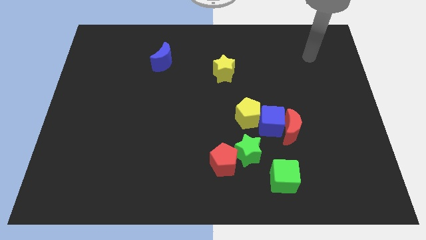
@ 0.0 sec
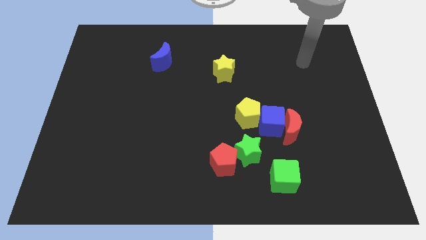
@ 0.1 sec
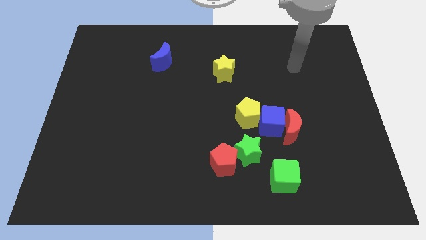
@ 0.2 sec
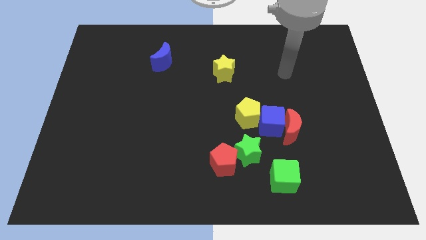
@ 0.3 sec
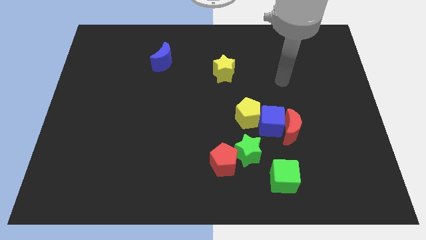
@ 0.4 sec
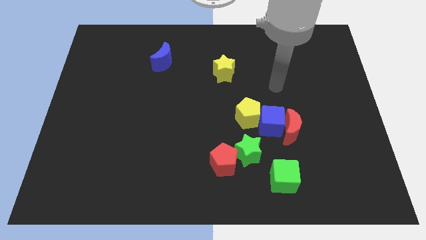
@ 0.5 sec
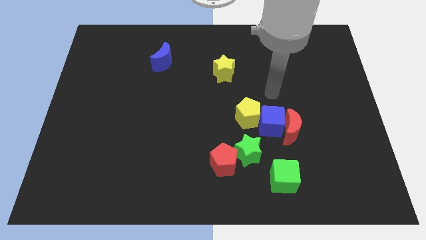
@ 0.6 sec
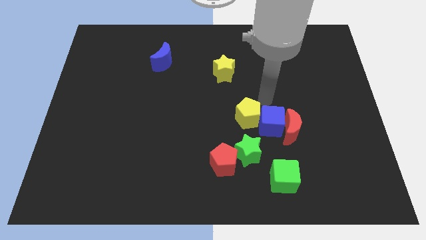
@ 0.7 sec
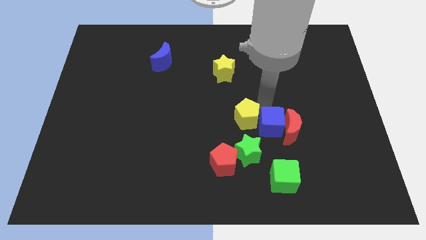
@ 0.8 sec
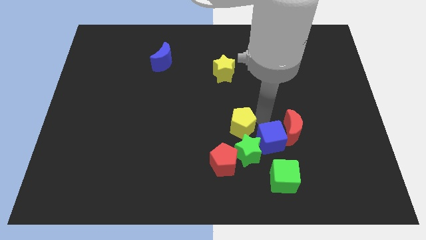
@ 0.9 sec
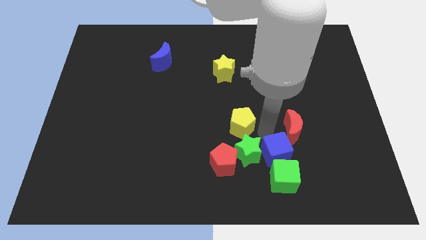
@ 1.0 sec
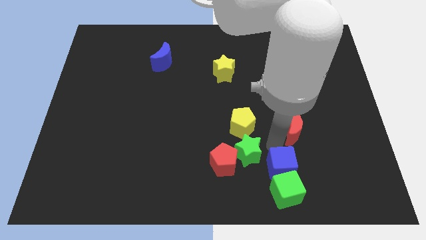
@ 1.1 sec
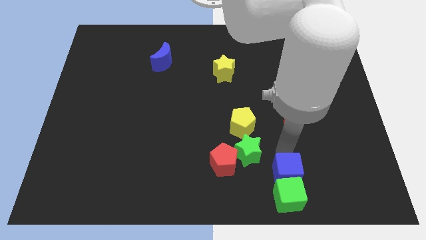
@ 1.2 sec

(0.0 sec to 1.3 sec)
pull the red moon apart from the blue cube

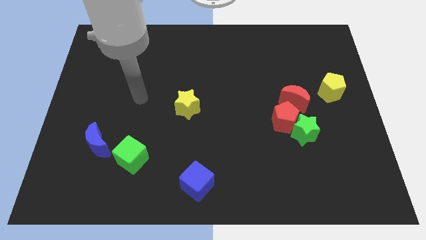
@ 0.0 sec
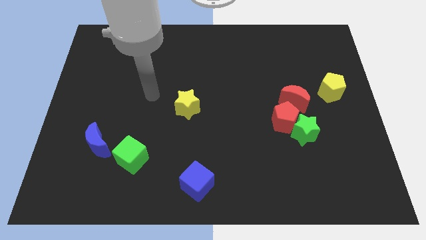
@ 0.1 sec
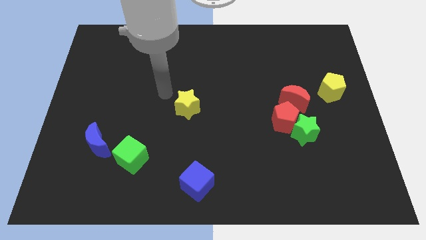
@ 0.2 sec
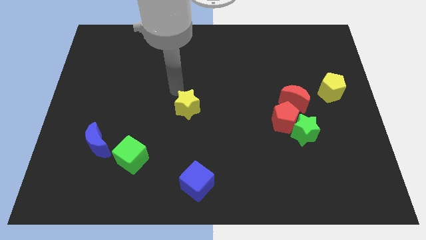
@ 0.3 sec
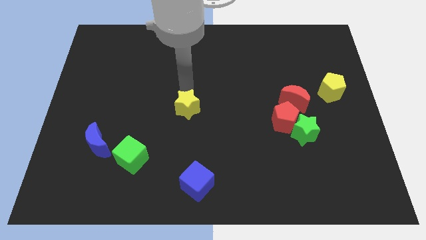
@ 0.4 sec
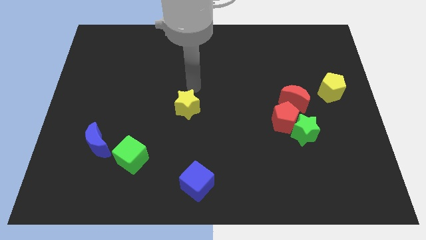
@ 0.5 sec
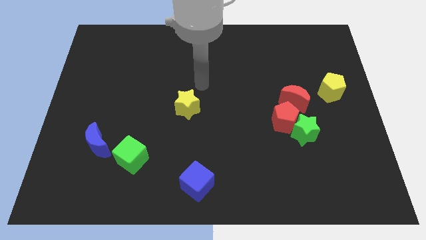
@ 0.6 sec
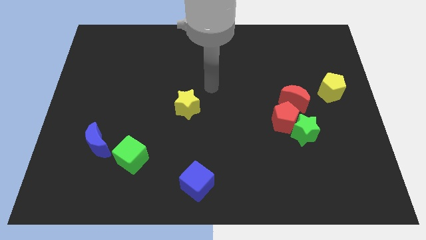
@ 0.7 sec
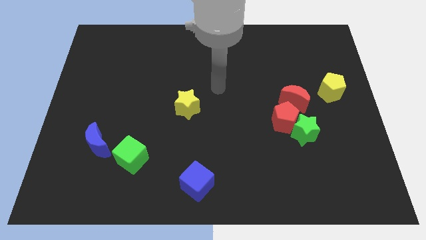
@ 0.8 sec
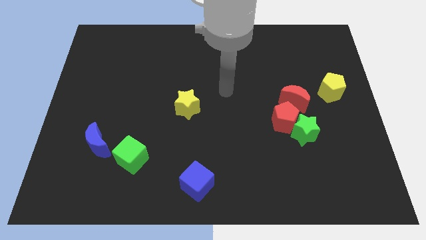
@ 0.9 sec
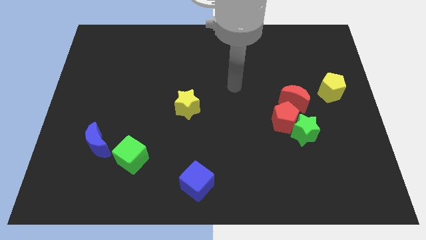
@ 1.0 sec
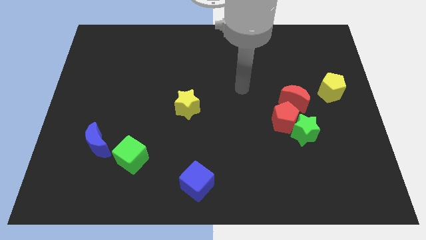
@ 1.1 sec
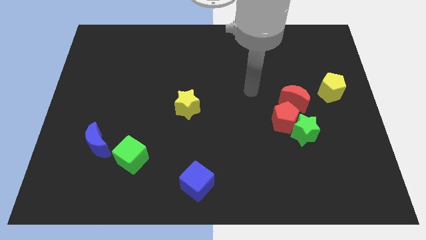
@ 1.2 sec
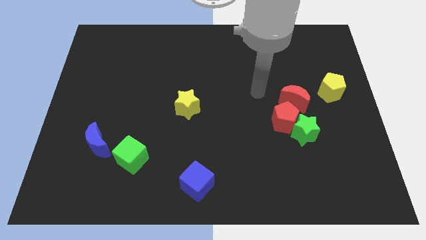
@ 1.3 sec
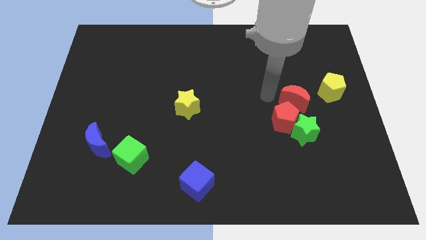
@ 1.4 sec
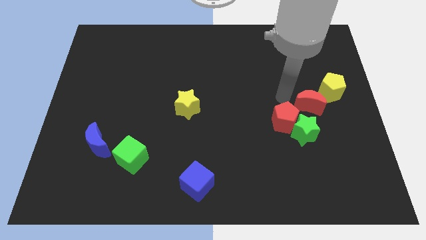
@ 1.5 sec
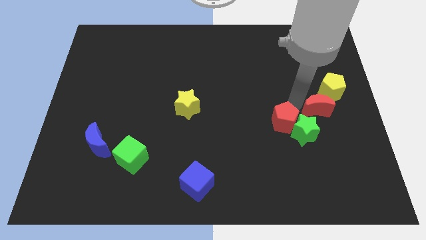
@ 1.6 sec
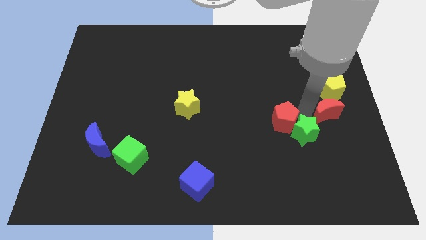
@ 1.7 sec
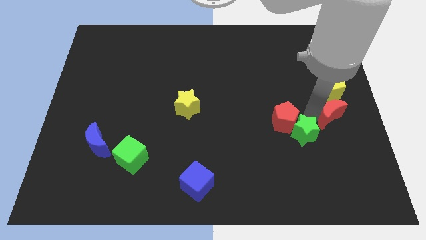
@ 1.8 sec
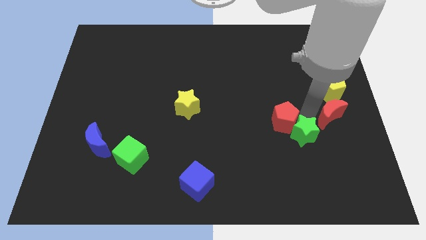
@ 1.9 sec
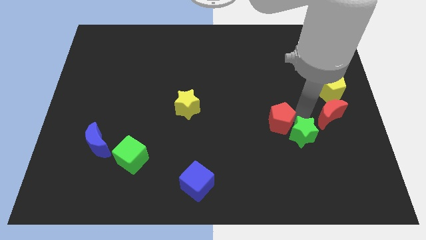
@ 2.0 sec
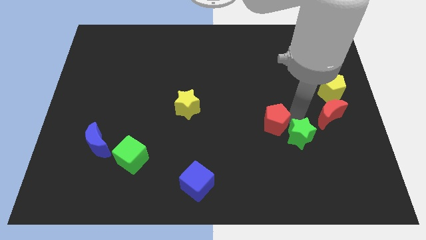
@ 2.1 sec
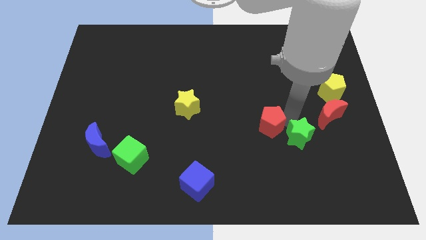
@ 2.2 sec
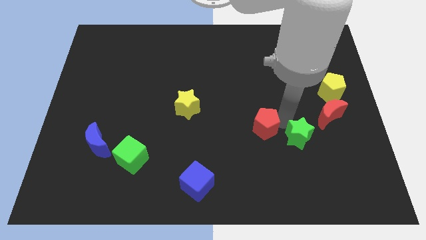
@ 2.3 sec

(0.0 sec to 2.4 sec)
separate the red pentagon from the green star and red moon

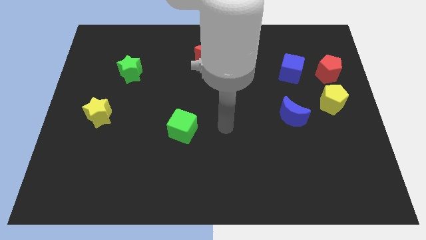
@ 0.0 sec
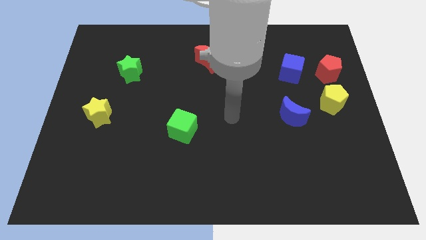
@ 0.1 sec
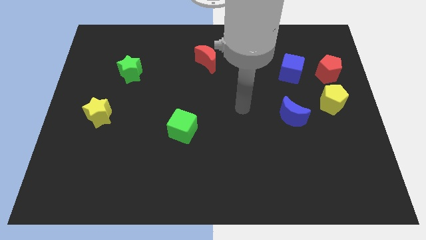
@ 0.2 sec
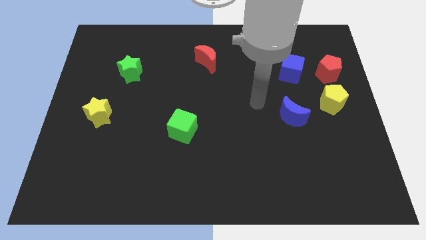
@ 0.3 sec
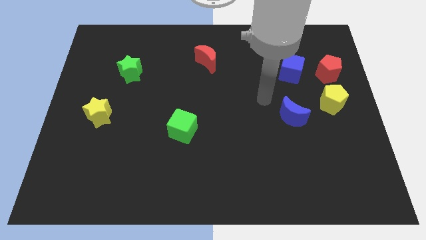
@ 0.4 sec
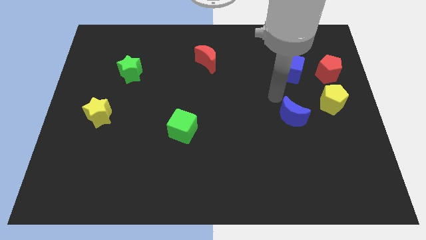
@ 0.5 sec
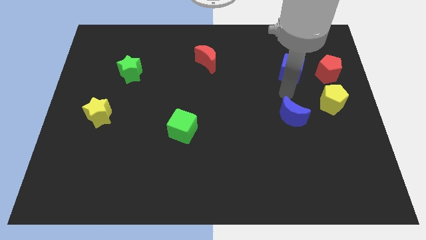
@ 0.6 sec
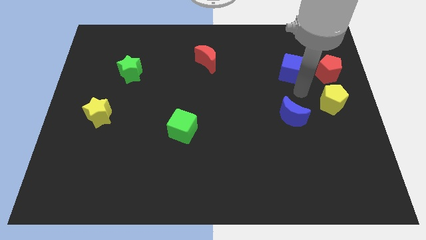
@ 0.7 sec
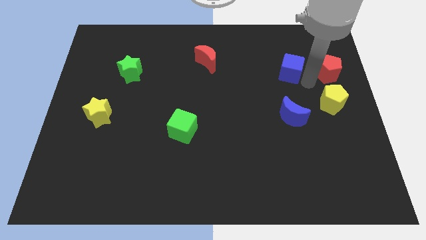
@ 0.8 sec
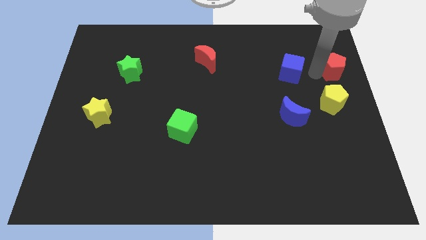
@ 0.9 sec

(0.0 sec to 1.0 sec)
separate the blue cube from the red pentagon

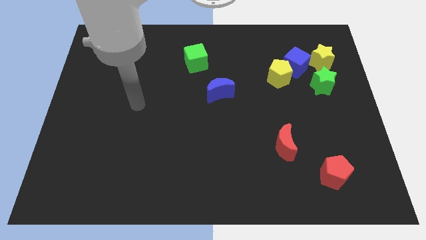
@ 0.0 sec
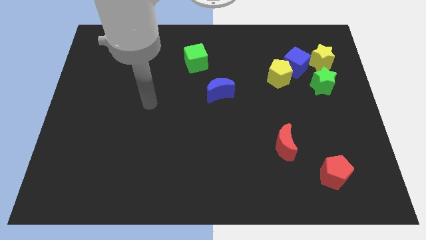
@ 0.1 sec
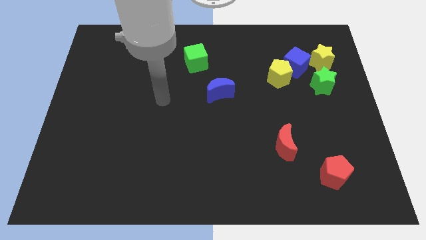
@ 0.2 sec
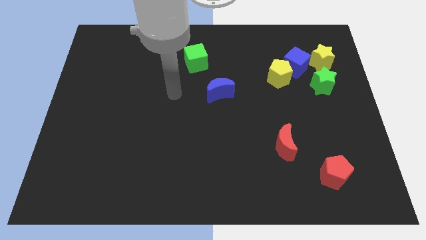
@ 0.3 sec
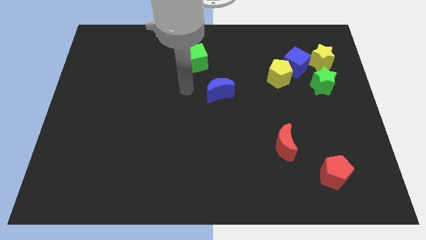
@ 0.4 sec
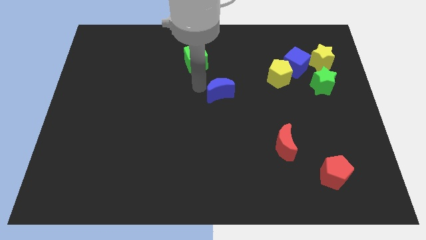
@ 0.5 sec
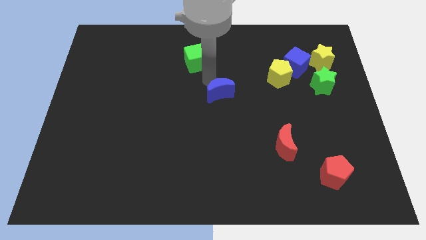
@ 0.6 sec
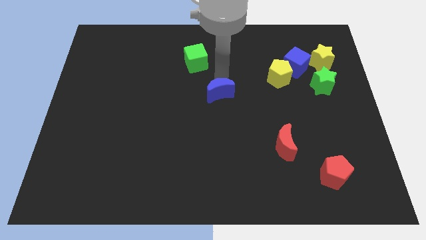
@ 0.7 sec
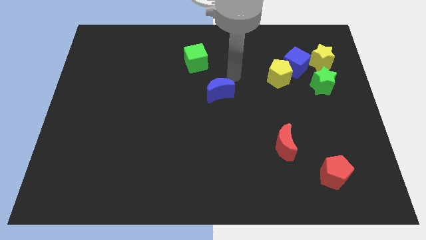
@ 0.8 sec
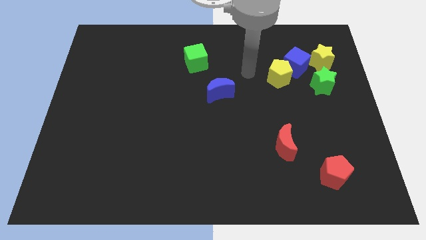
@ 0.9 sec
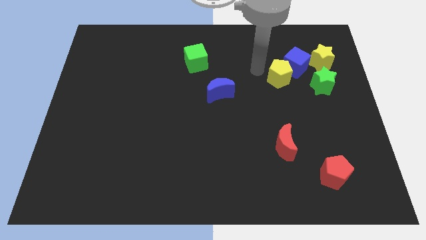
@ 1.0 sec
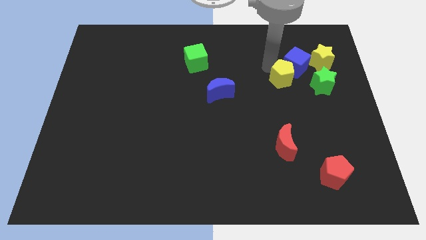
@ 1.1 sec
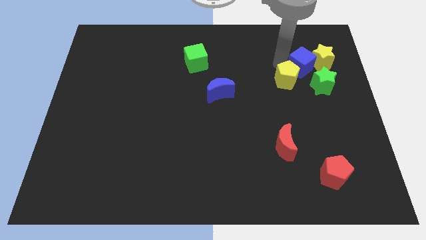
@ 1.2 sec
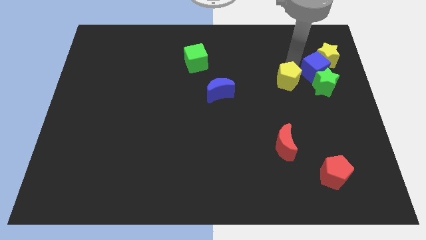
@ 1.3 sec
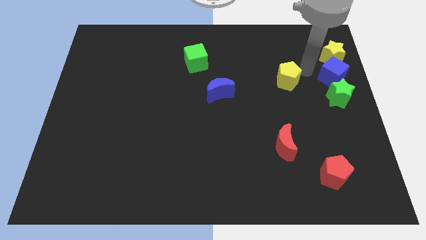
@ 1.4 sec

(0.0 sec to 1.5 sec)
move the yellow pentagon away from the blue cube

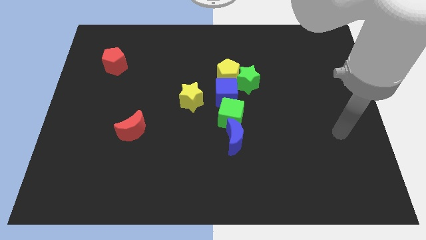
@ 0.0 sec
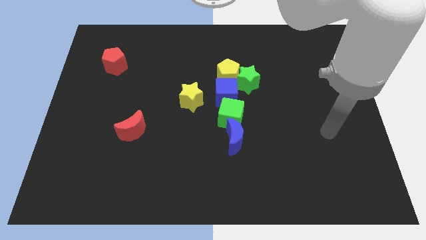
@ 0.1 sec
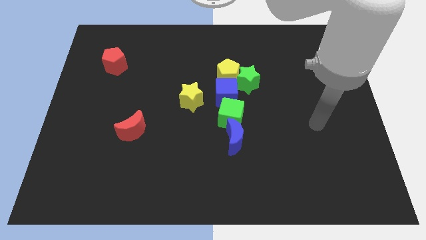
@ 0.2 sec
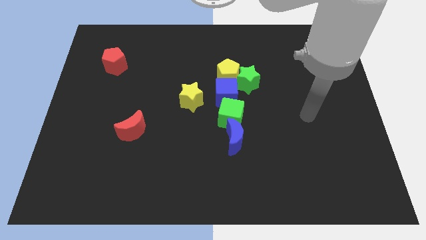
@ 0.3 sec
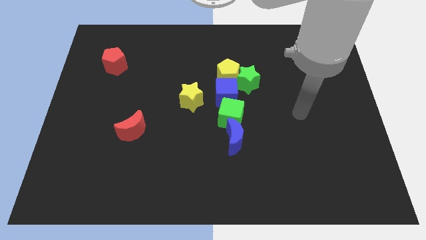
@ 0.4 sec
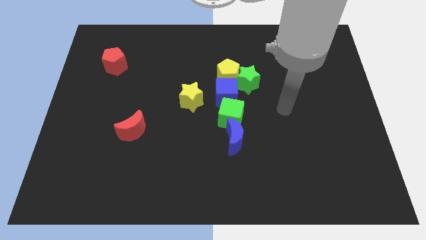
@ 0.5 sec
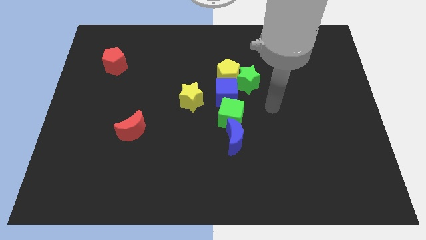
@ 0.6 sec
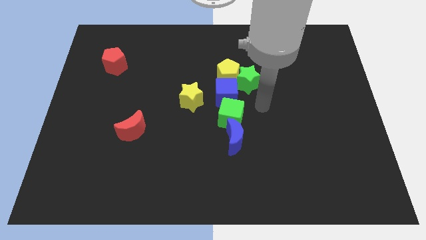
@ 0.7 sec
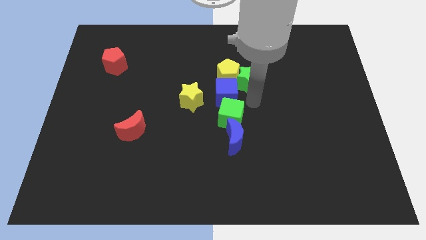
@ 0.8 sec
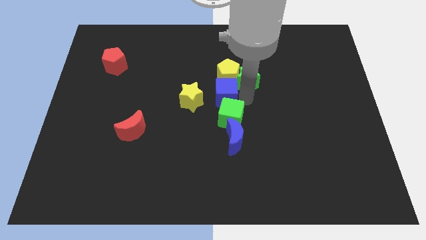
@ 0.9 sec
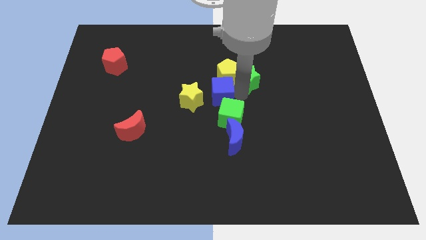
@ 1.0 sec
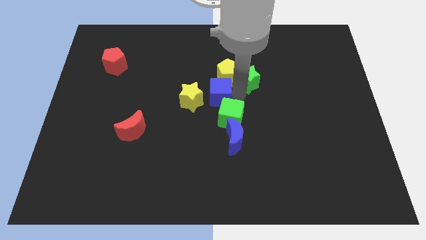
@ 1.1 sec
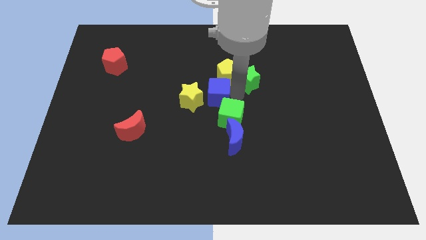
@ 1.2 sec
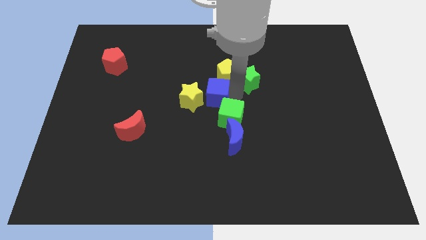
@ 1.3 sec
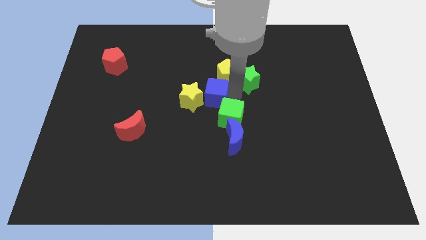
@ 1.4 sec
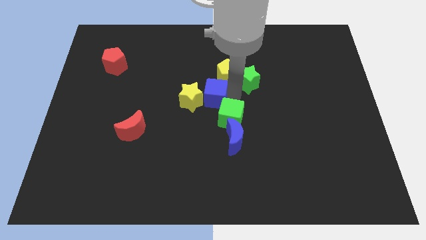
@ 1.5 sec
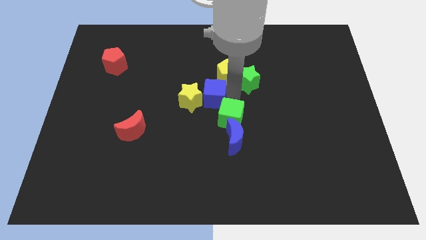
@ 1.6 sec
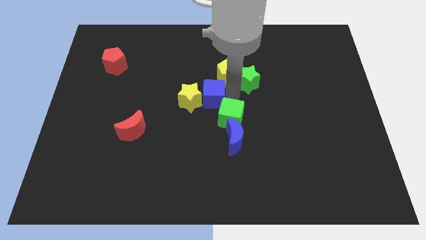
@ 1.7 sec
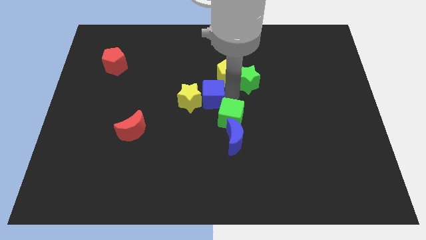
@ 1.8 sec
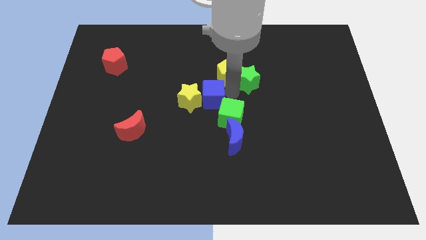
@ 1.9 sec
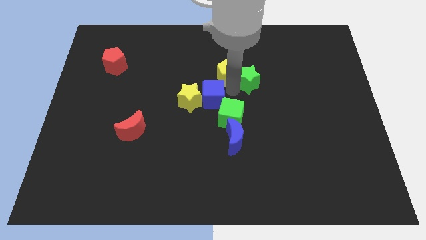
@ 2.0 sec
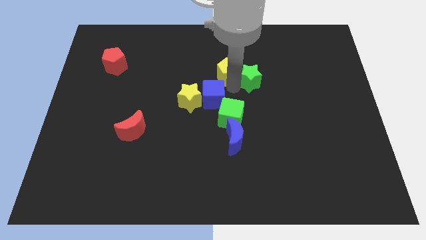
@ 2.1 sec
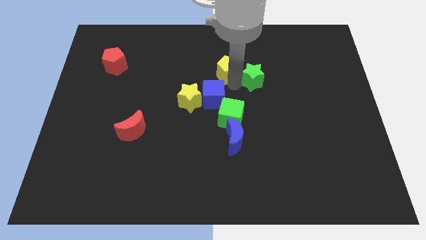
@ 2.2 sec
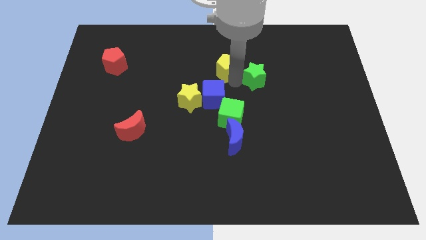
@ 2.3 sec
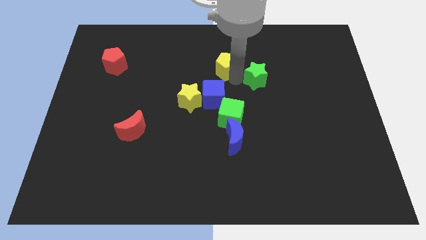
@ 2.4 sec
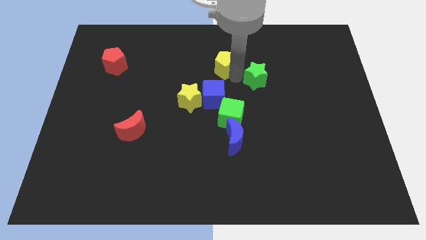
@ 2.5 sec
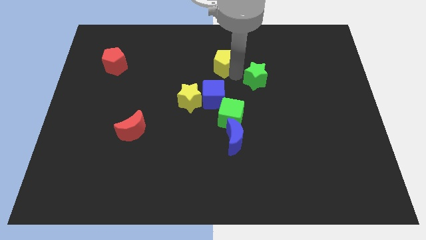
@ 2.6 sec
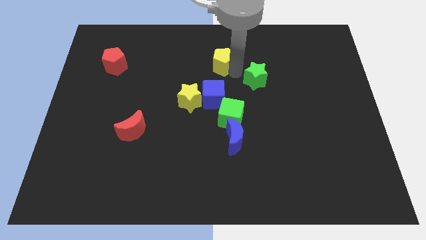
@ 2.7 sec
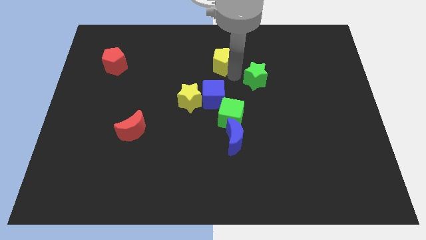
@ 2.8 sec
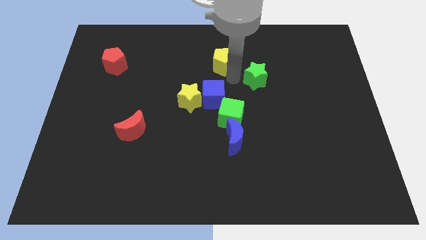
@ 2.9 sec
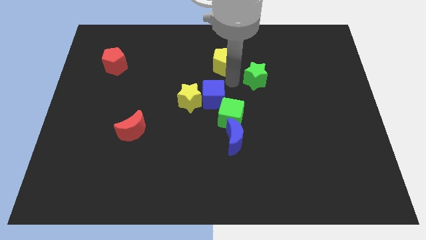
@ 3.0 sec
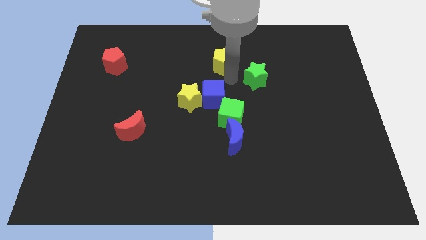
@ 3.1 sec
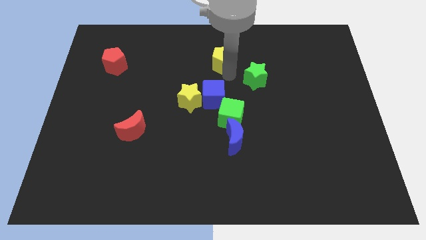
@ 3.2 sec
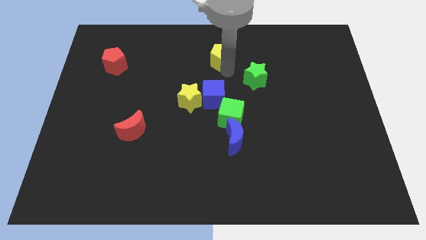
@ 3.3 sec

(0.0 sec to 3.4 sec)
pull the yellow pentagon apart from the green star and blue cube
